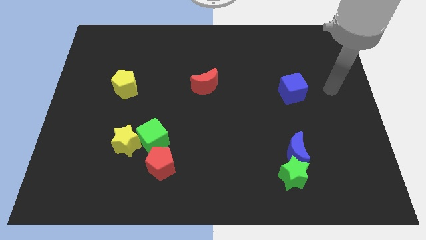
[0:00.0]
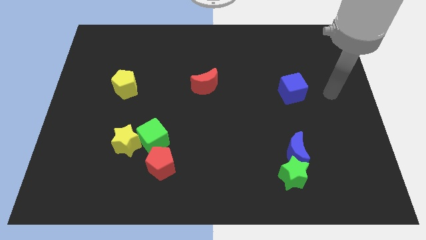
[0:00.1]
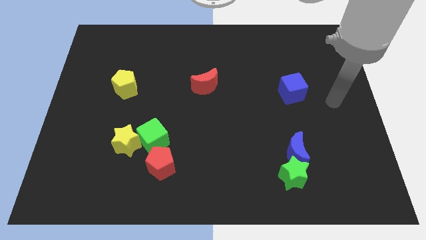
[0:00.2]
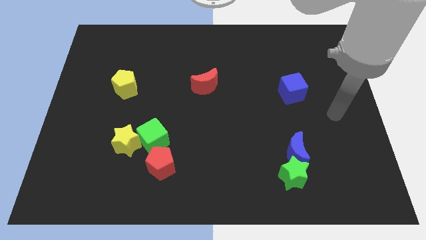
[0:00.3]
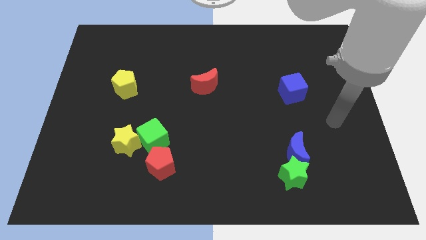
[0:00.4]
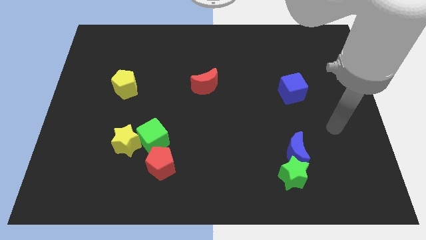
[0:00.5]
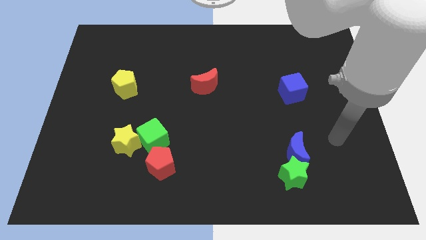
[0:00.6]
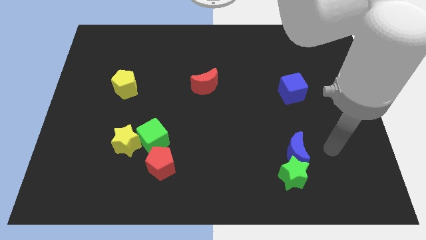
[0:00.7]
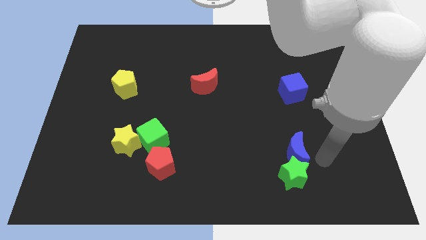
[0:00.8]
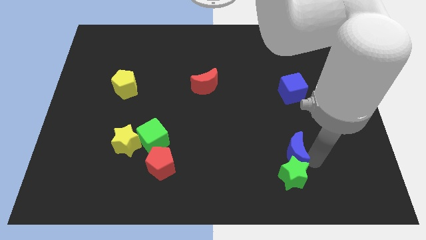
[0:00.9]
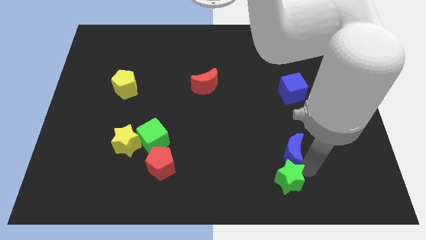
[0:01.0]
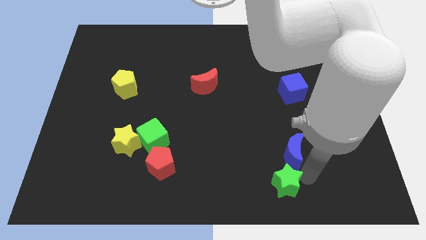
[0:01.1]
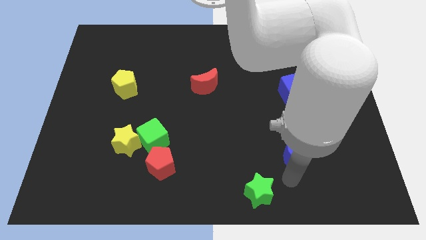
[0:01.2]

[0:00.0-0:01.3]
pull the blue moon apart from the green star

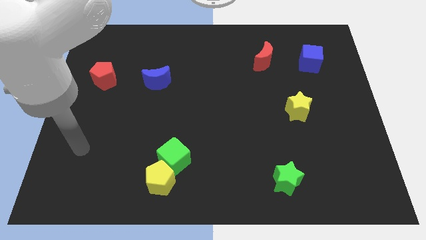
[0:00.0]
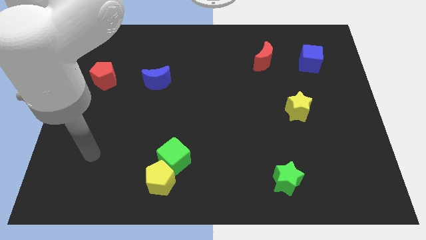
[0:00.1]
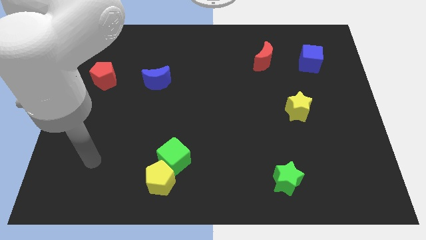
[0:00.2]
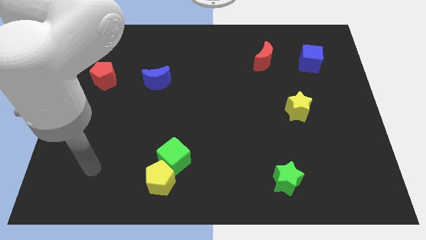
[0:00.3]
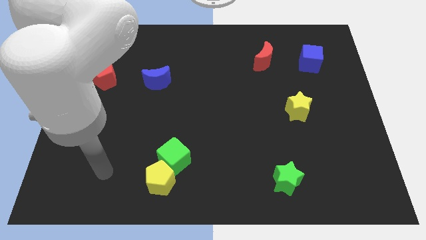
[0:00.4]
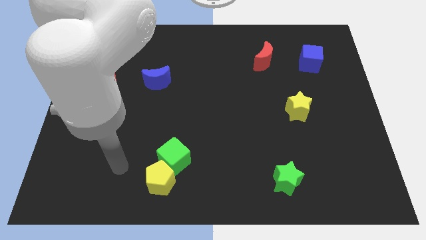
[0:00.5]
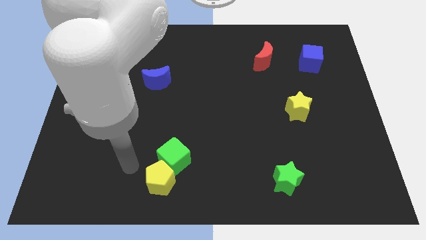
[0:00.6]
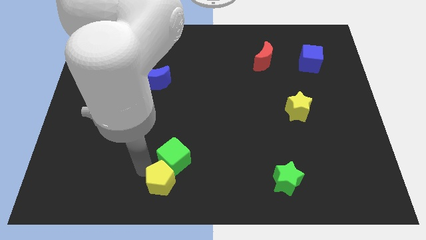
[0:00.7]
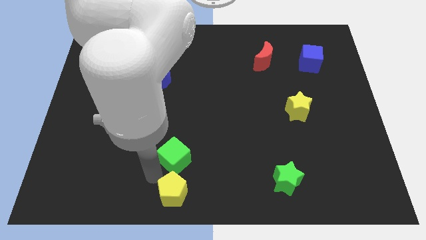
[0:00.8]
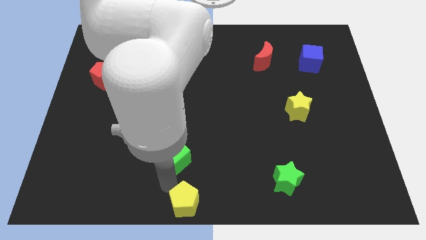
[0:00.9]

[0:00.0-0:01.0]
separate the green cube from the yellow pentagon

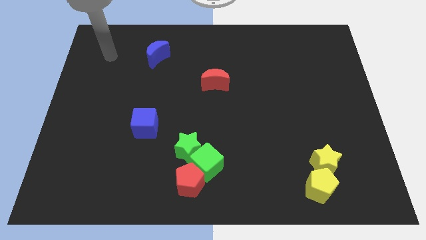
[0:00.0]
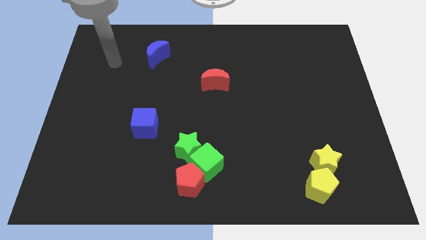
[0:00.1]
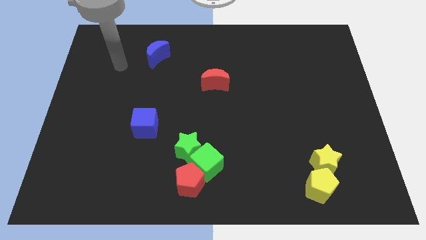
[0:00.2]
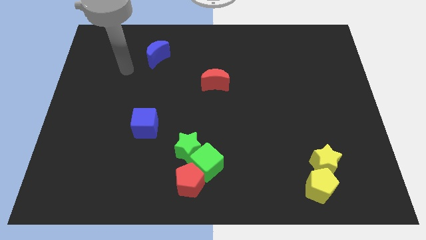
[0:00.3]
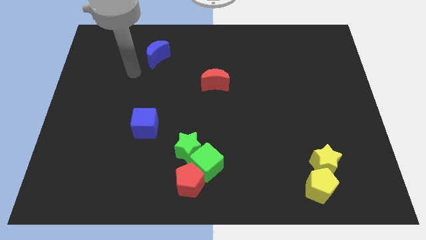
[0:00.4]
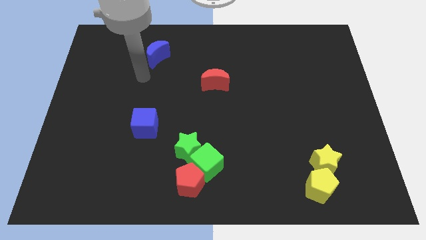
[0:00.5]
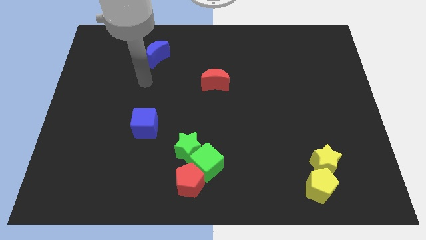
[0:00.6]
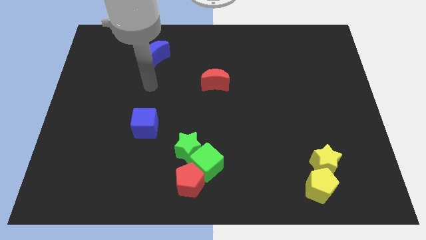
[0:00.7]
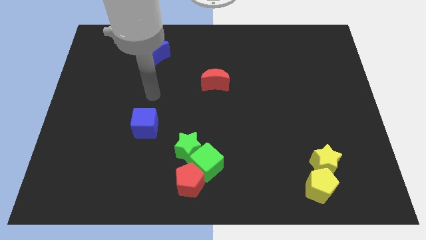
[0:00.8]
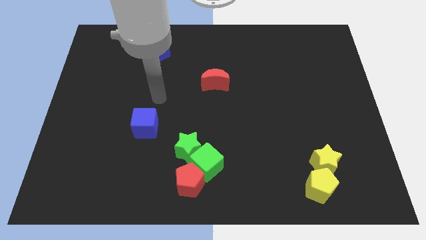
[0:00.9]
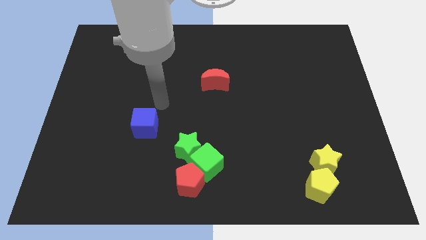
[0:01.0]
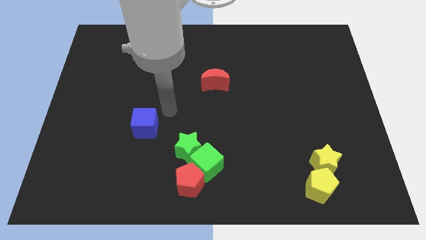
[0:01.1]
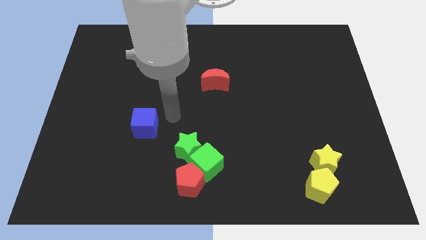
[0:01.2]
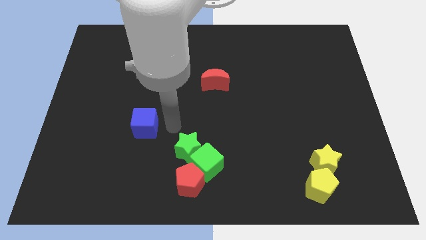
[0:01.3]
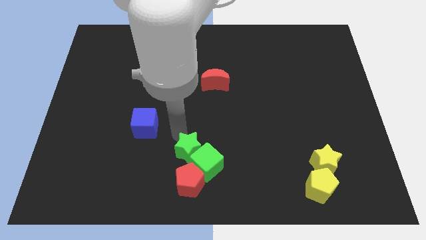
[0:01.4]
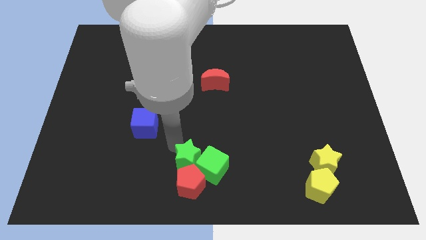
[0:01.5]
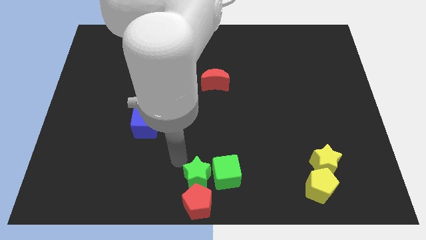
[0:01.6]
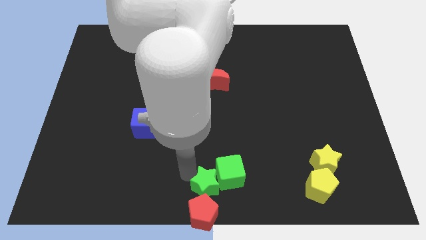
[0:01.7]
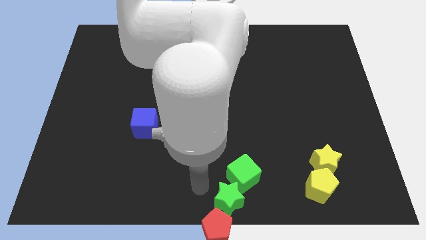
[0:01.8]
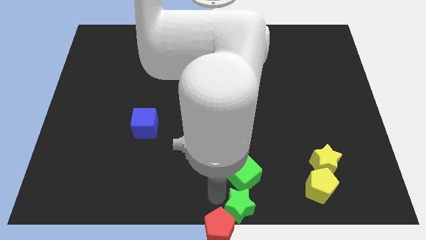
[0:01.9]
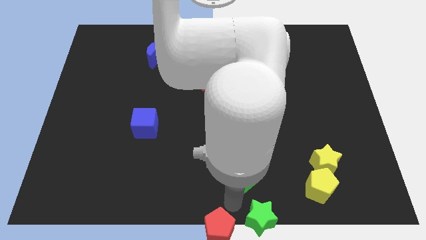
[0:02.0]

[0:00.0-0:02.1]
separate the green cube from the green star and red pentagon

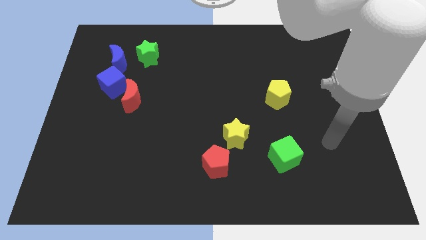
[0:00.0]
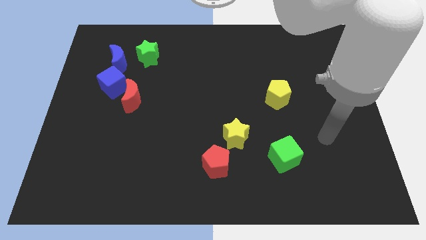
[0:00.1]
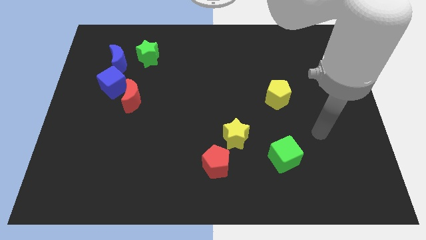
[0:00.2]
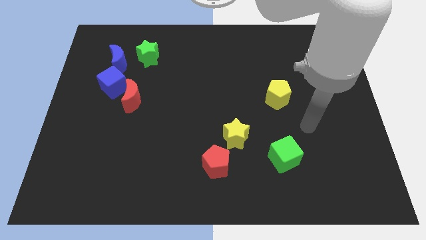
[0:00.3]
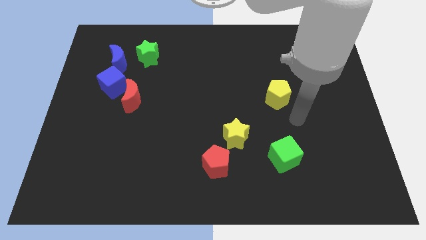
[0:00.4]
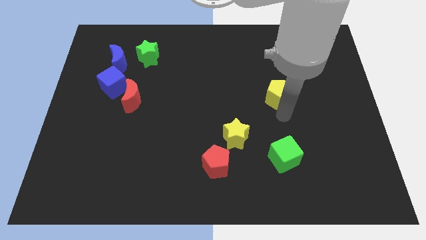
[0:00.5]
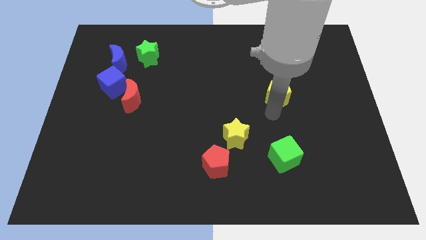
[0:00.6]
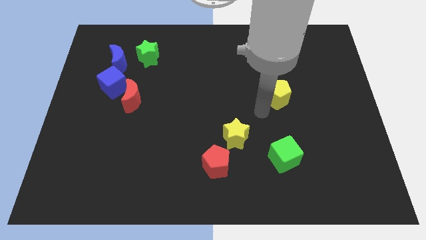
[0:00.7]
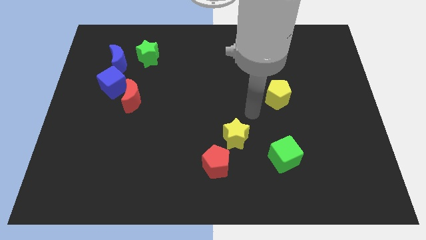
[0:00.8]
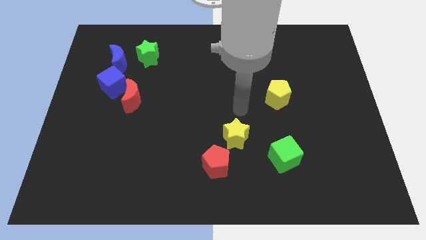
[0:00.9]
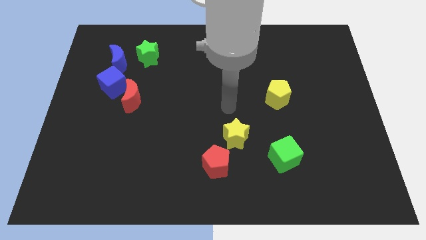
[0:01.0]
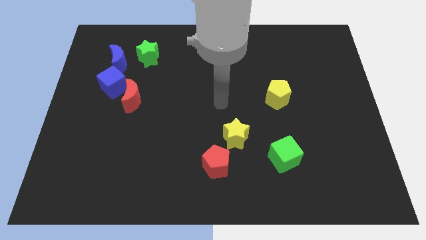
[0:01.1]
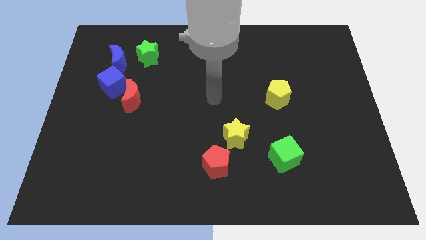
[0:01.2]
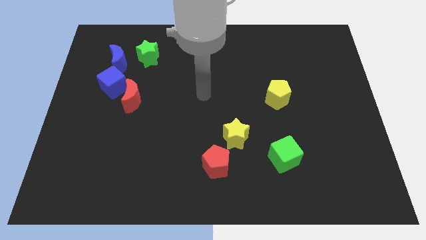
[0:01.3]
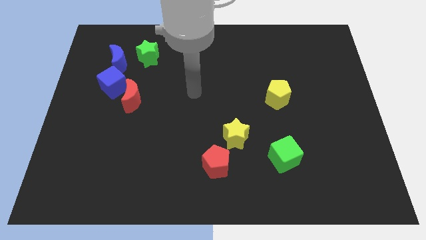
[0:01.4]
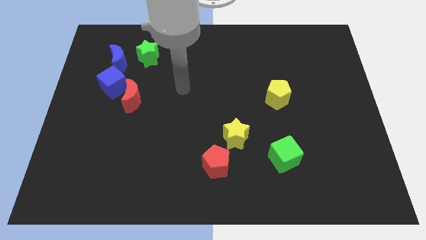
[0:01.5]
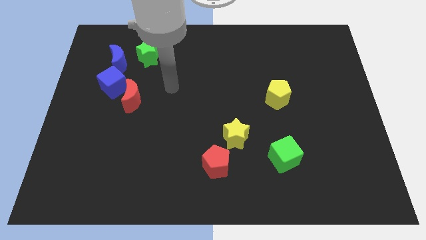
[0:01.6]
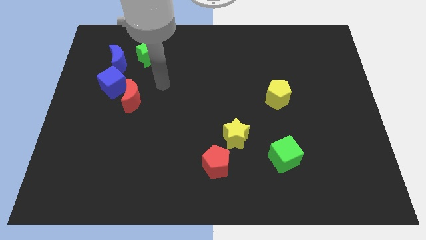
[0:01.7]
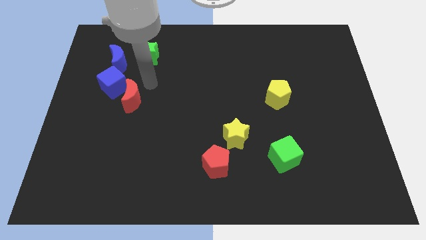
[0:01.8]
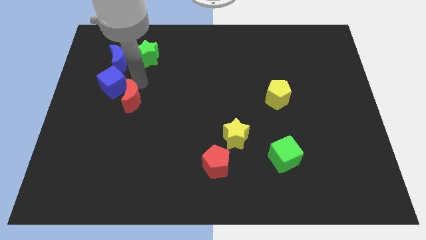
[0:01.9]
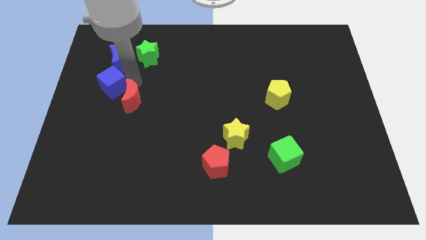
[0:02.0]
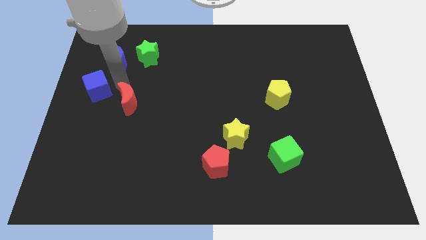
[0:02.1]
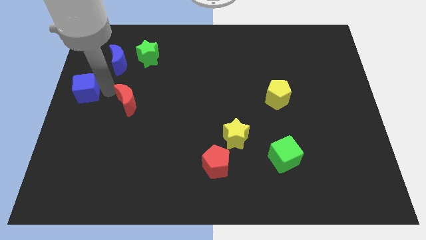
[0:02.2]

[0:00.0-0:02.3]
move the red moon away from the blue cube

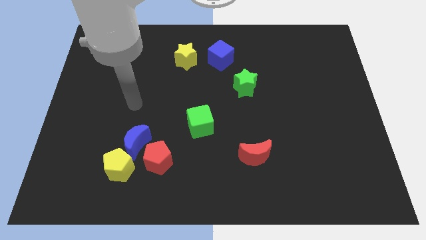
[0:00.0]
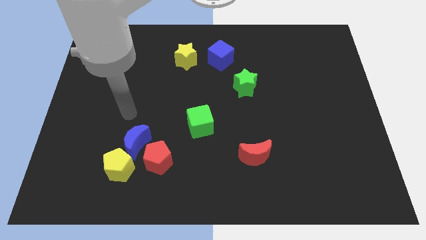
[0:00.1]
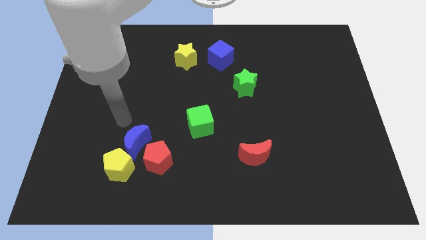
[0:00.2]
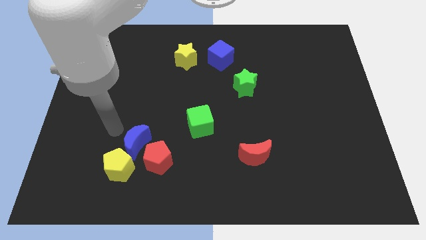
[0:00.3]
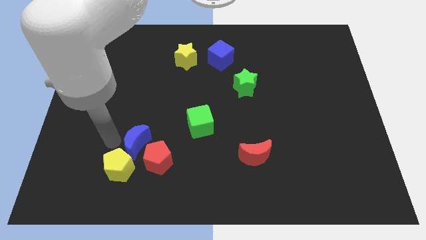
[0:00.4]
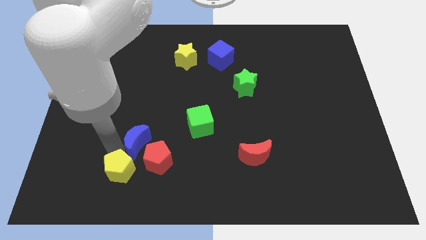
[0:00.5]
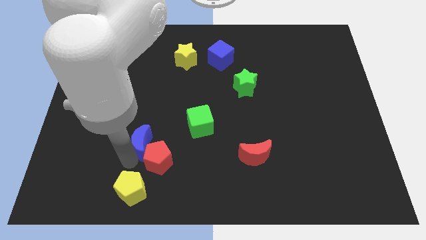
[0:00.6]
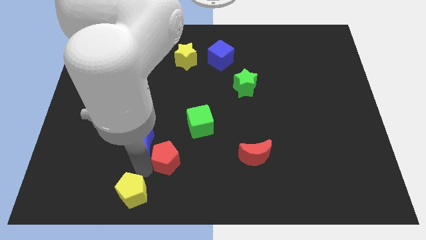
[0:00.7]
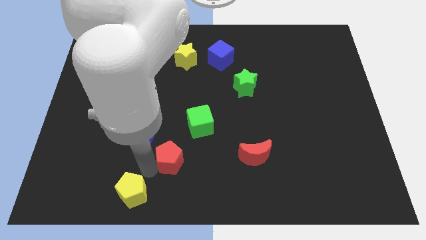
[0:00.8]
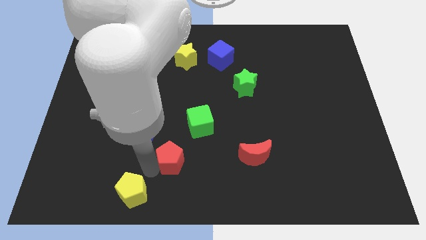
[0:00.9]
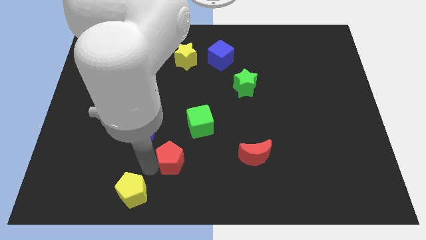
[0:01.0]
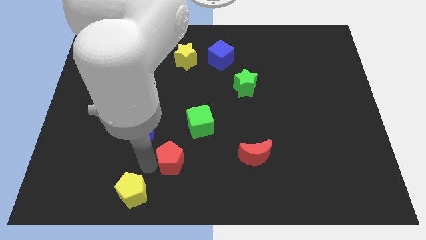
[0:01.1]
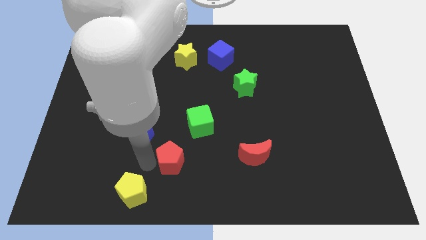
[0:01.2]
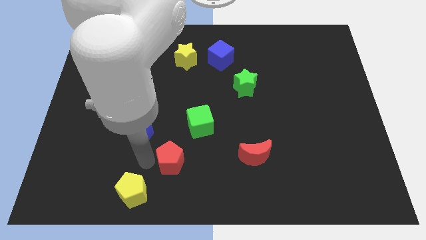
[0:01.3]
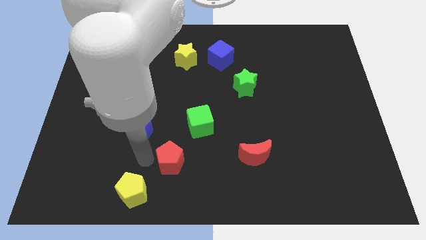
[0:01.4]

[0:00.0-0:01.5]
separate the blue moon from the yellow pentagon and red pentagon

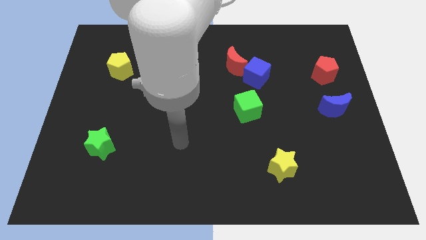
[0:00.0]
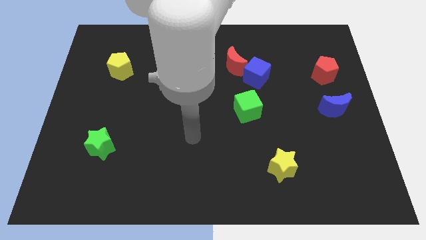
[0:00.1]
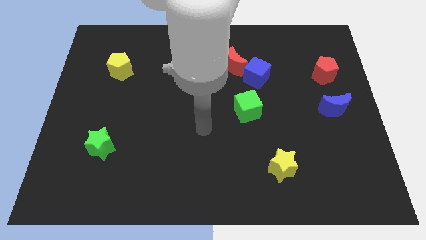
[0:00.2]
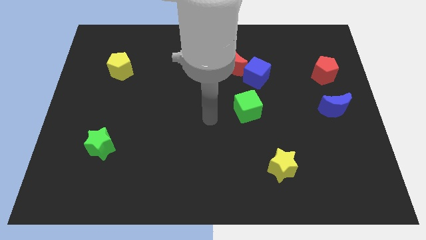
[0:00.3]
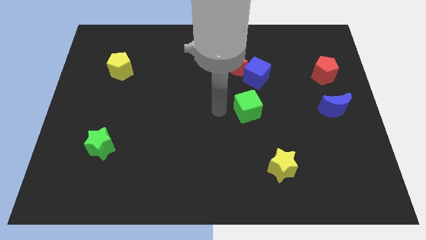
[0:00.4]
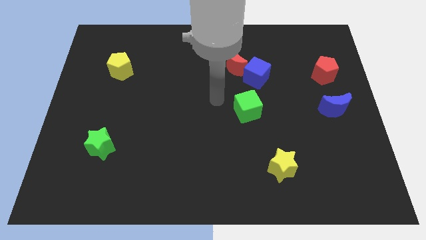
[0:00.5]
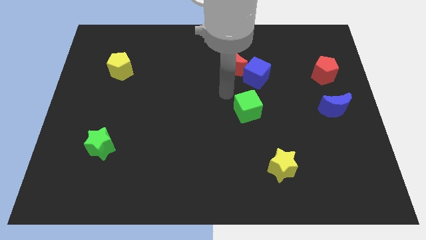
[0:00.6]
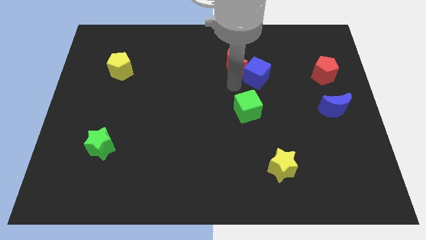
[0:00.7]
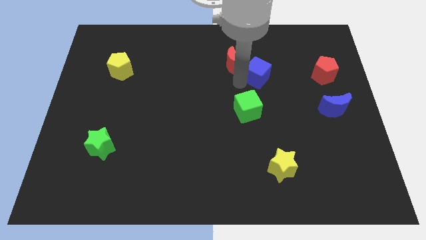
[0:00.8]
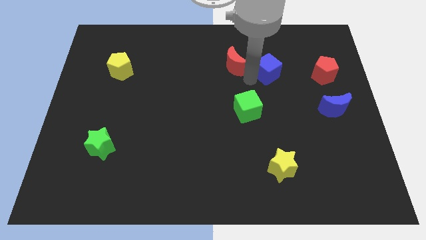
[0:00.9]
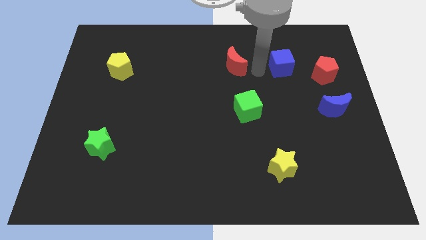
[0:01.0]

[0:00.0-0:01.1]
pull the red moon apart from the blue cube
